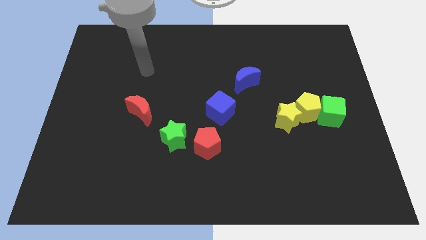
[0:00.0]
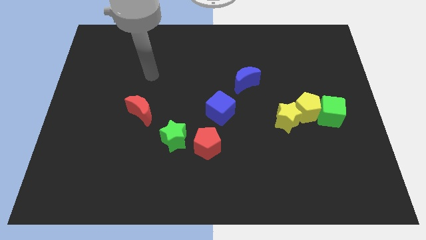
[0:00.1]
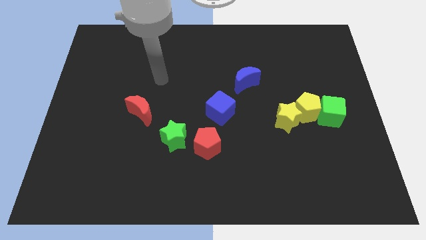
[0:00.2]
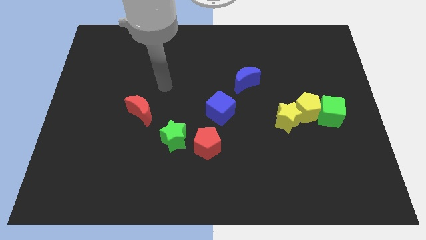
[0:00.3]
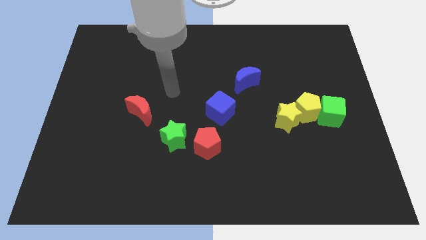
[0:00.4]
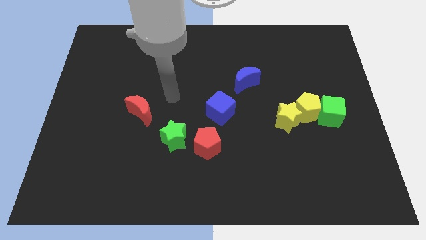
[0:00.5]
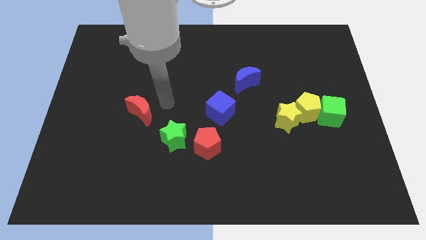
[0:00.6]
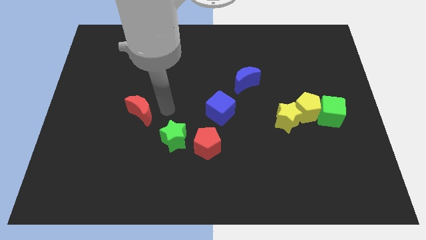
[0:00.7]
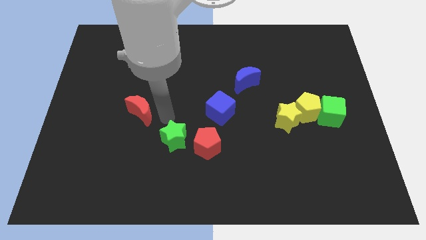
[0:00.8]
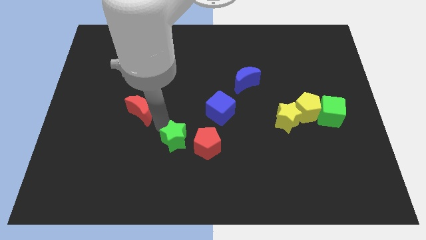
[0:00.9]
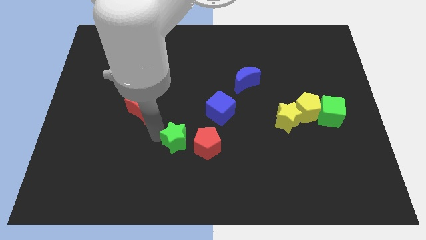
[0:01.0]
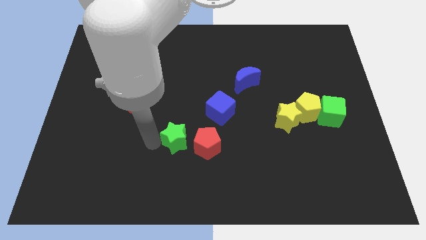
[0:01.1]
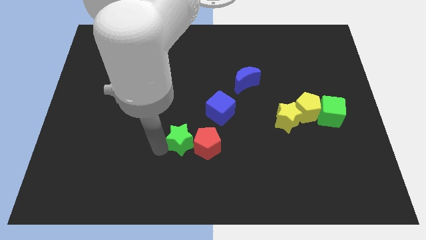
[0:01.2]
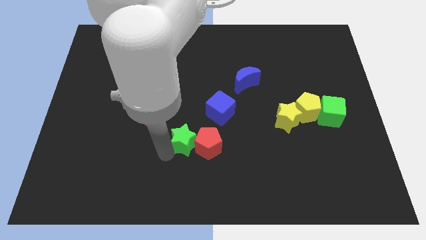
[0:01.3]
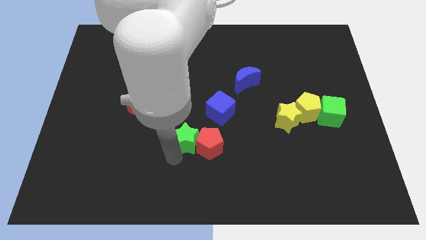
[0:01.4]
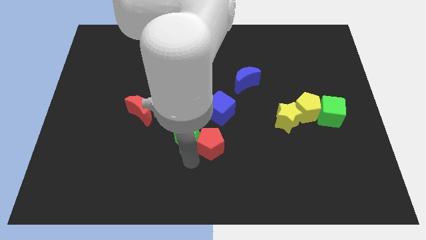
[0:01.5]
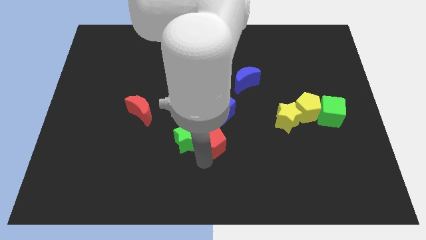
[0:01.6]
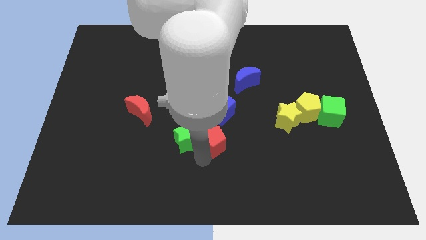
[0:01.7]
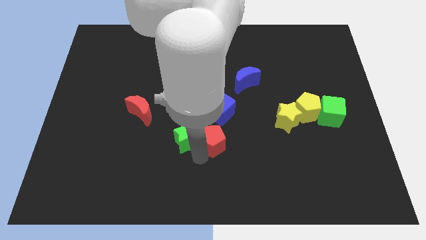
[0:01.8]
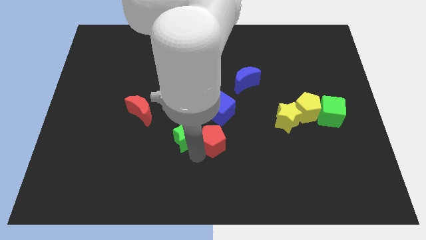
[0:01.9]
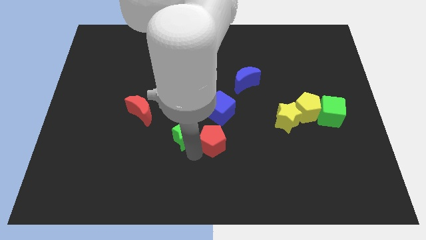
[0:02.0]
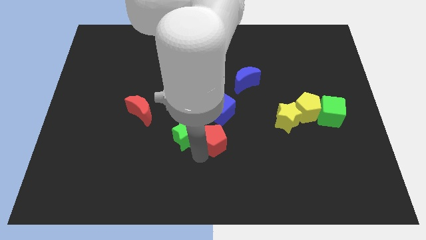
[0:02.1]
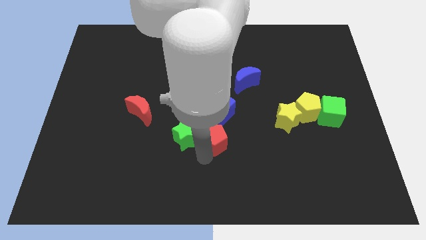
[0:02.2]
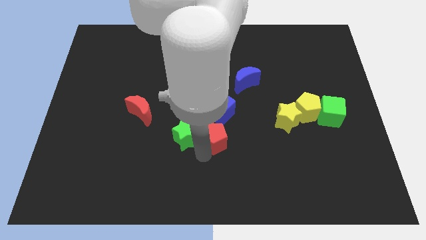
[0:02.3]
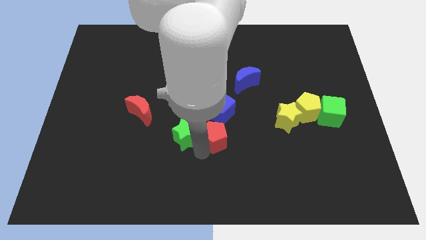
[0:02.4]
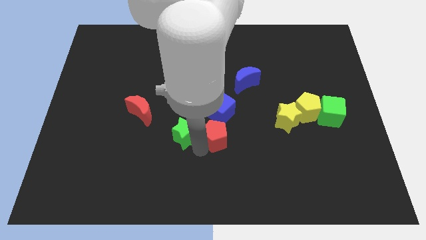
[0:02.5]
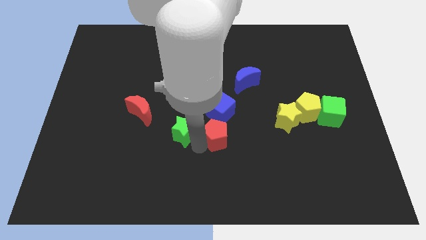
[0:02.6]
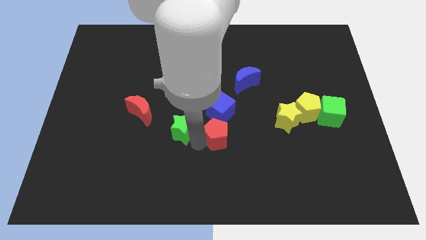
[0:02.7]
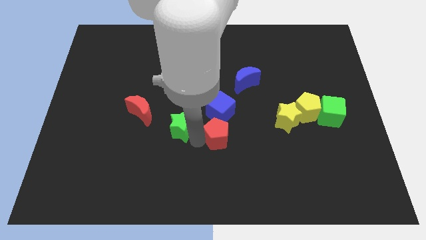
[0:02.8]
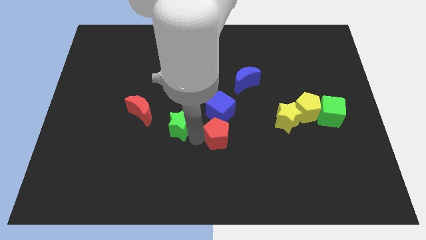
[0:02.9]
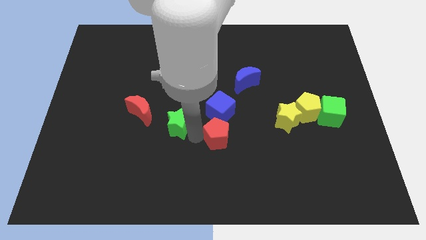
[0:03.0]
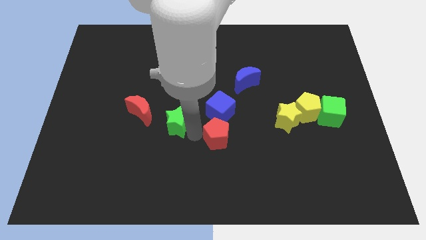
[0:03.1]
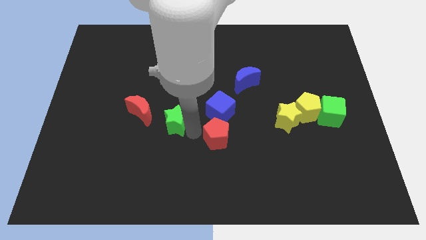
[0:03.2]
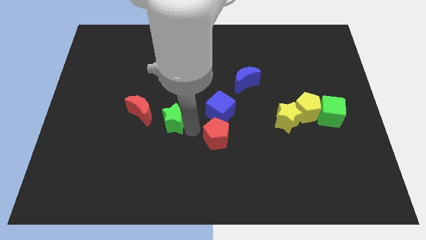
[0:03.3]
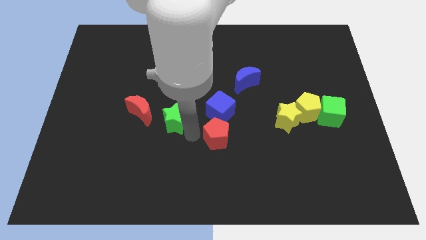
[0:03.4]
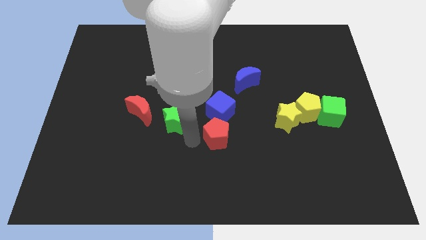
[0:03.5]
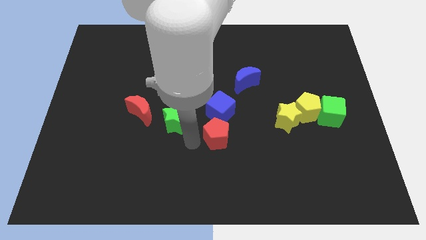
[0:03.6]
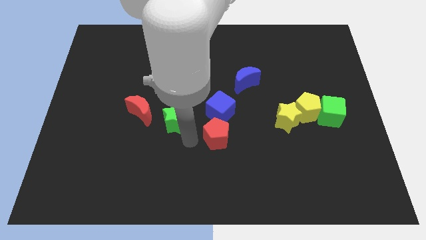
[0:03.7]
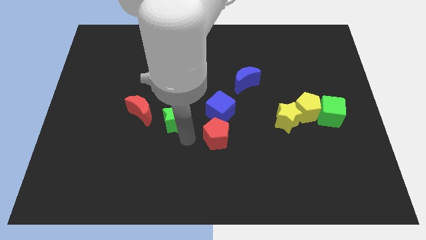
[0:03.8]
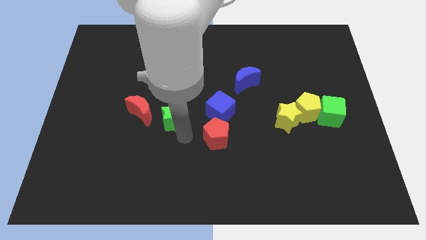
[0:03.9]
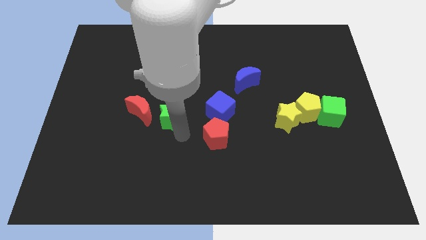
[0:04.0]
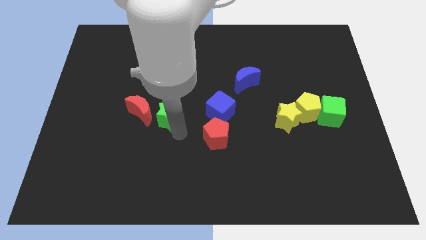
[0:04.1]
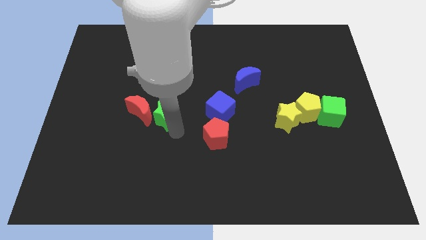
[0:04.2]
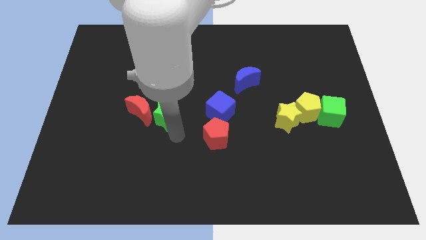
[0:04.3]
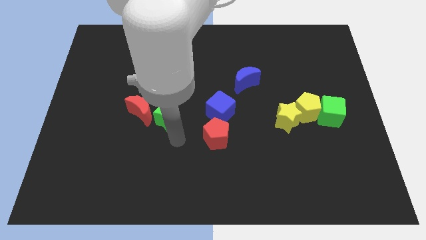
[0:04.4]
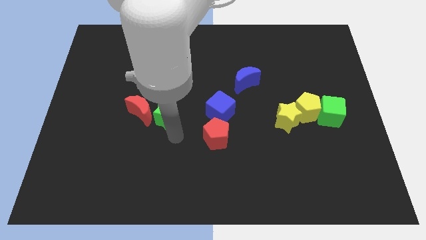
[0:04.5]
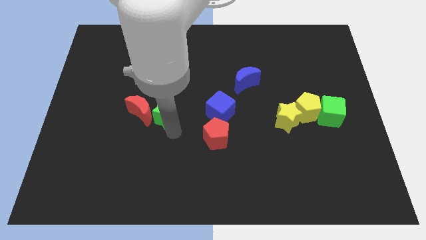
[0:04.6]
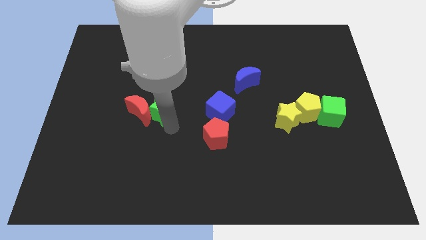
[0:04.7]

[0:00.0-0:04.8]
move the green star somewhat up and then to the left

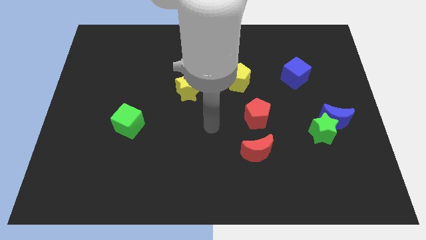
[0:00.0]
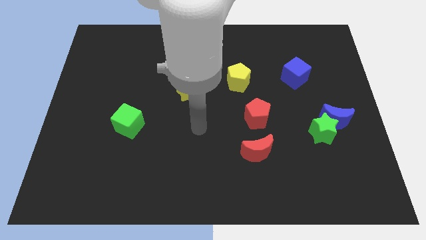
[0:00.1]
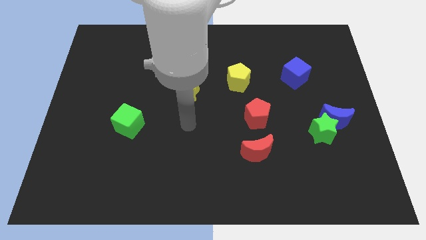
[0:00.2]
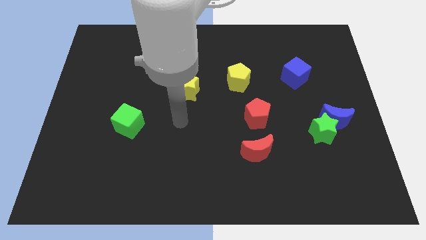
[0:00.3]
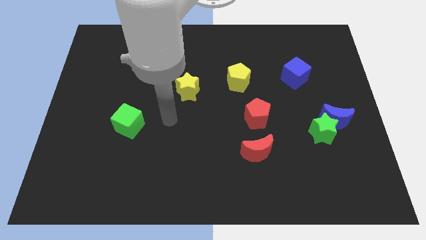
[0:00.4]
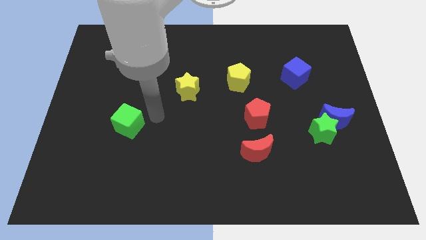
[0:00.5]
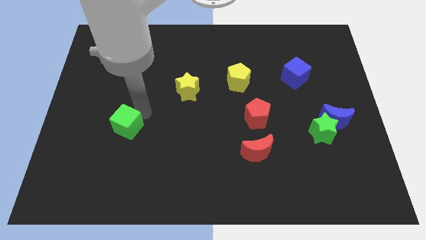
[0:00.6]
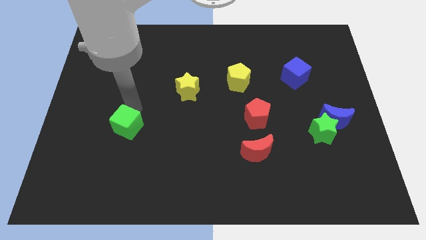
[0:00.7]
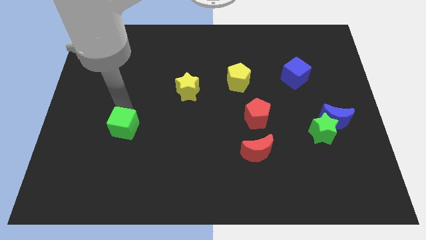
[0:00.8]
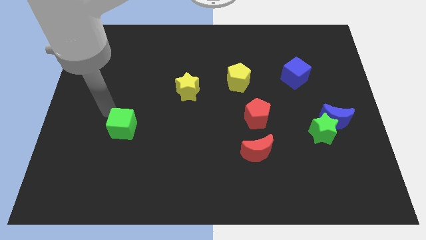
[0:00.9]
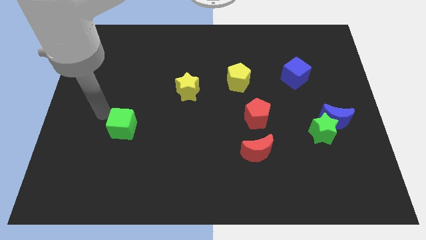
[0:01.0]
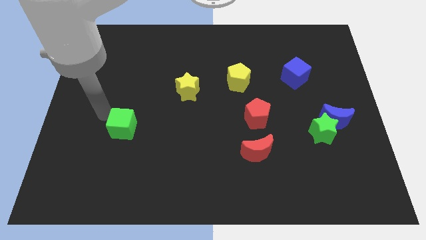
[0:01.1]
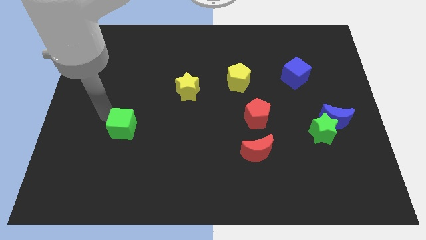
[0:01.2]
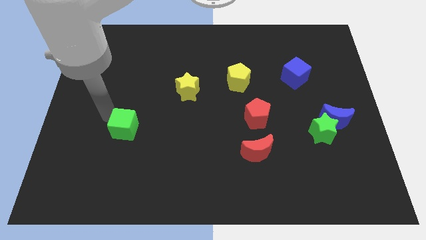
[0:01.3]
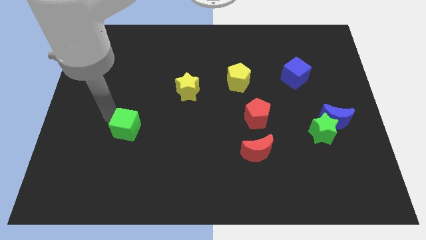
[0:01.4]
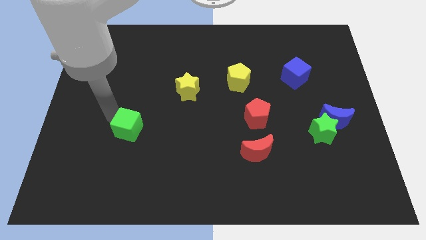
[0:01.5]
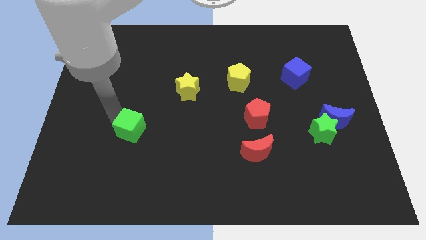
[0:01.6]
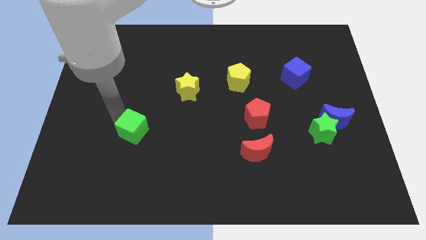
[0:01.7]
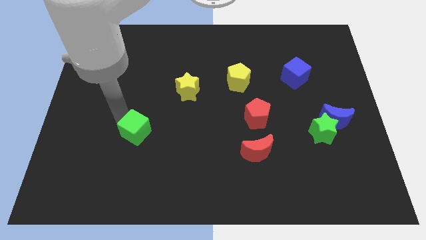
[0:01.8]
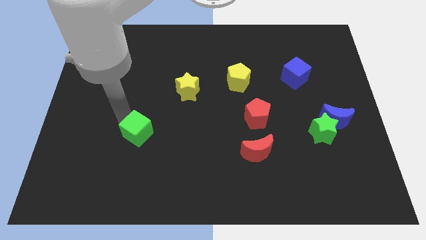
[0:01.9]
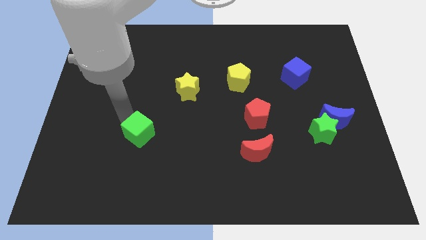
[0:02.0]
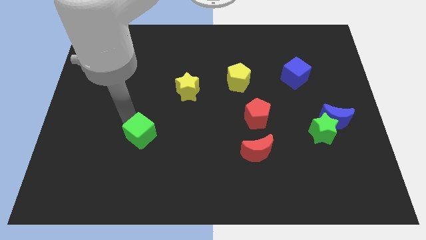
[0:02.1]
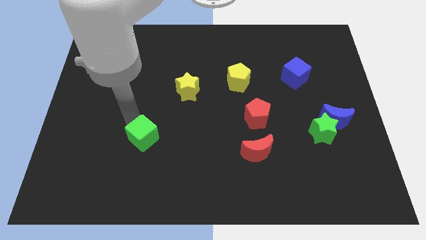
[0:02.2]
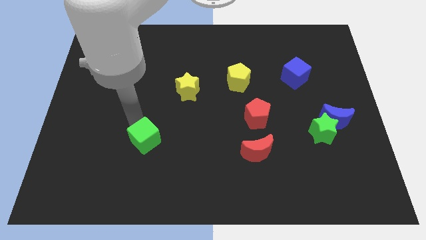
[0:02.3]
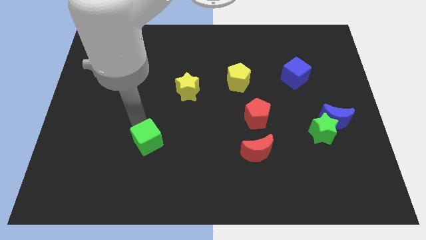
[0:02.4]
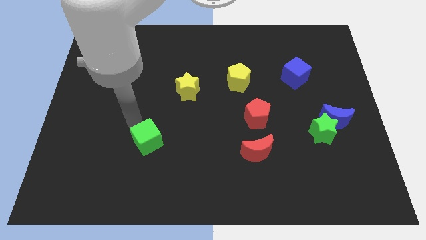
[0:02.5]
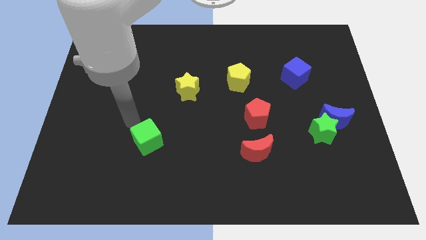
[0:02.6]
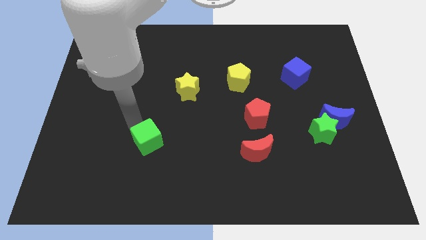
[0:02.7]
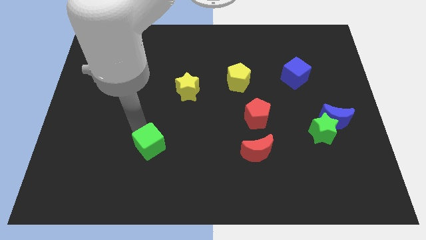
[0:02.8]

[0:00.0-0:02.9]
slightly move the green cube diagonally down and to the right
